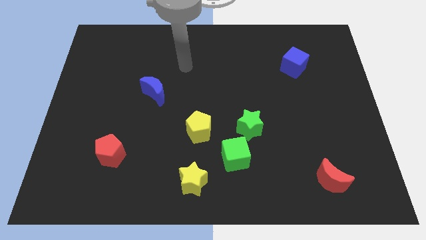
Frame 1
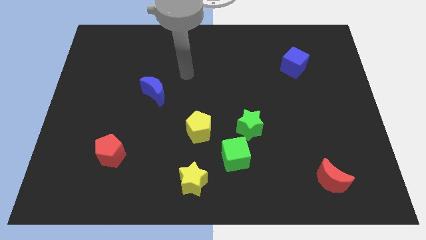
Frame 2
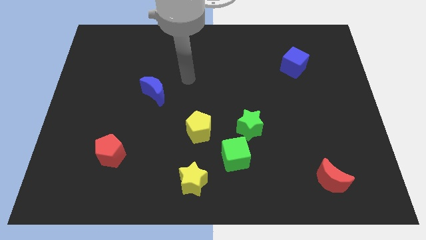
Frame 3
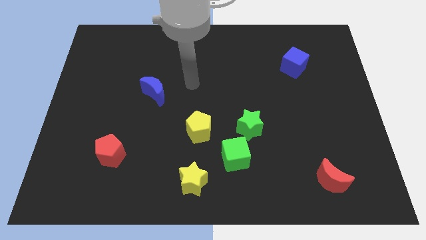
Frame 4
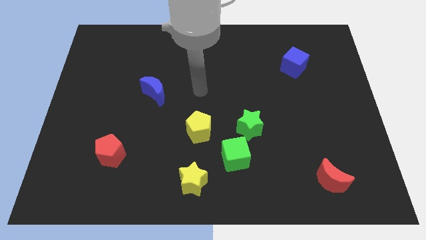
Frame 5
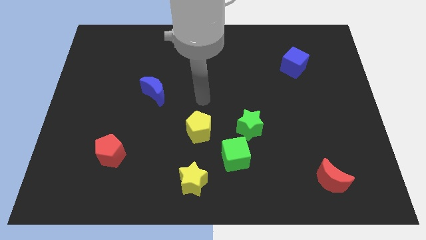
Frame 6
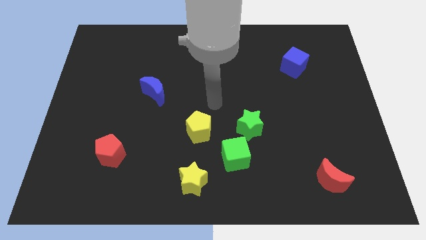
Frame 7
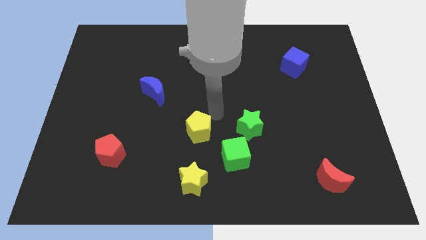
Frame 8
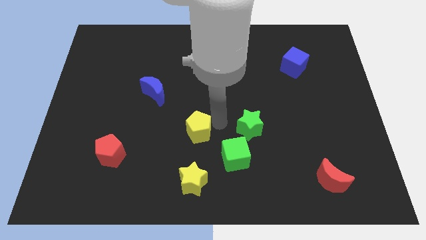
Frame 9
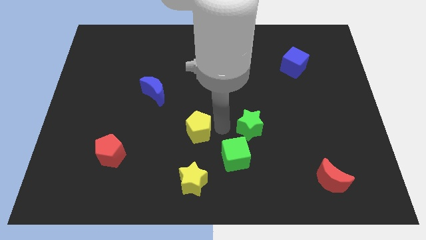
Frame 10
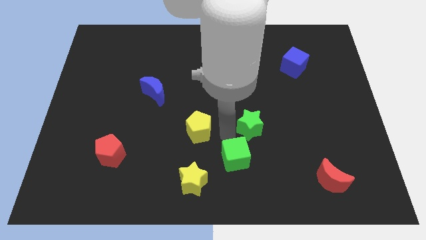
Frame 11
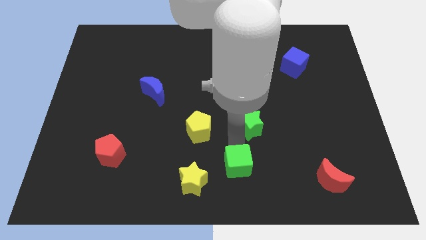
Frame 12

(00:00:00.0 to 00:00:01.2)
pull the green star apart from the green cube

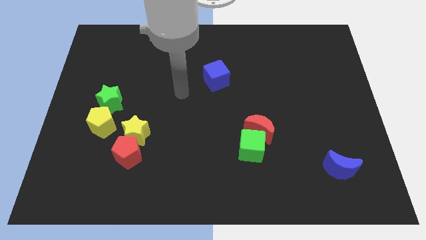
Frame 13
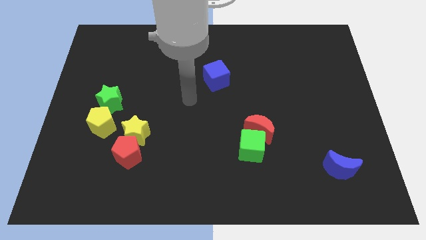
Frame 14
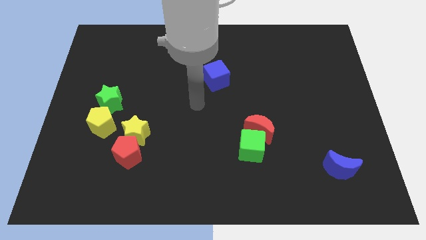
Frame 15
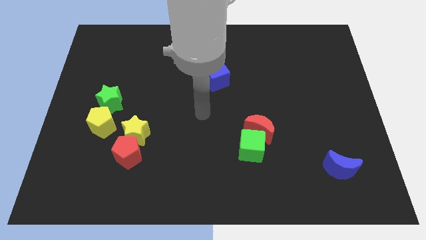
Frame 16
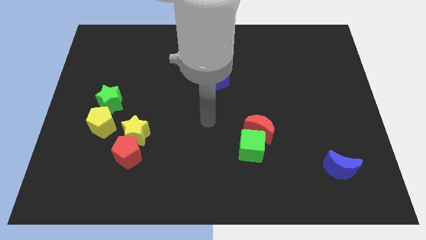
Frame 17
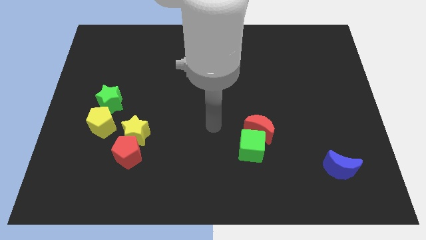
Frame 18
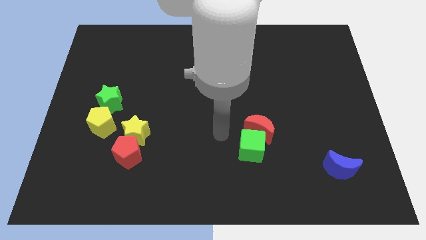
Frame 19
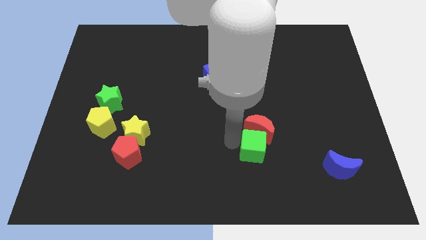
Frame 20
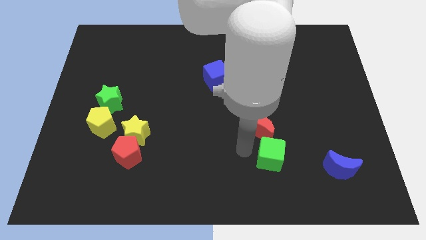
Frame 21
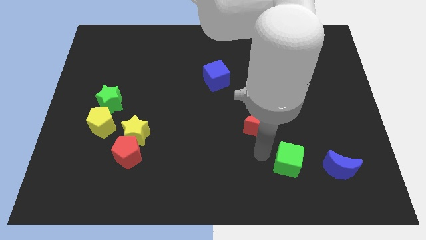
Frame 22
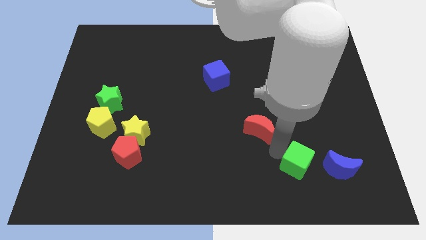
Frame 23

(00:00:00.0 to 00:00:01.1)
pull the red moon apart from the green cube

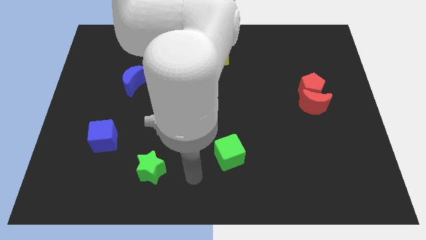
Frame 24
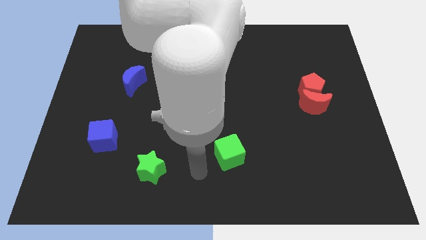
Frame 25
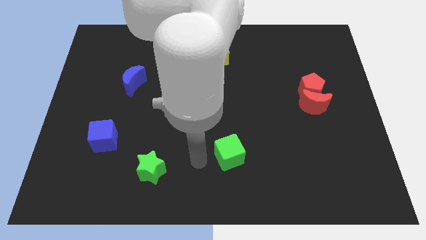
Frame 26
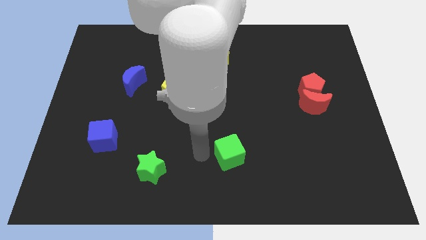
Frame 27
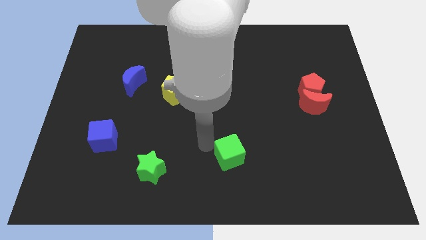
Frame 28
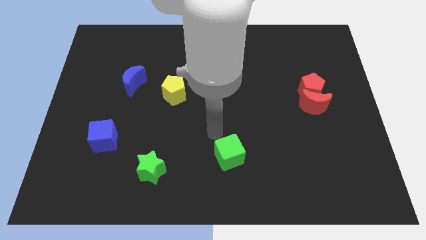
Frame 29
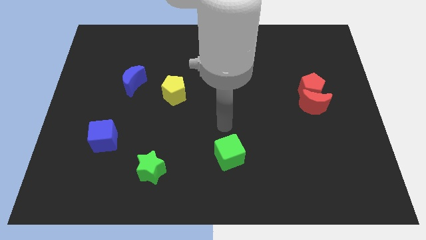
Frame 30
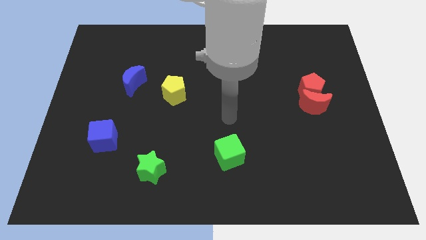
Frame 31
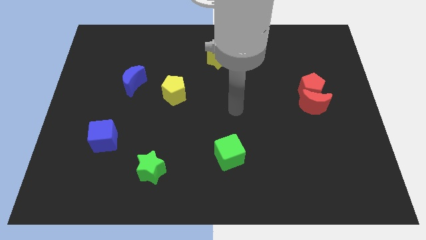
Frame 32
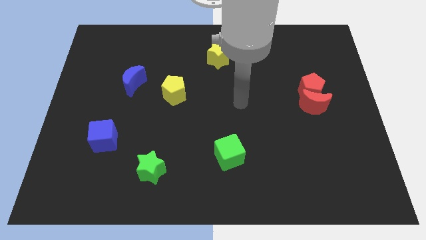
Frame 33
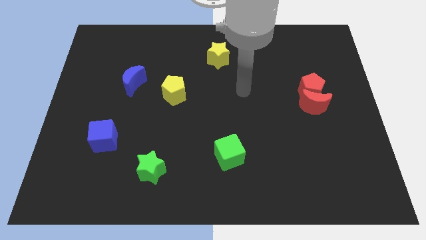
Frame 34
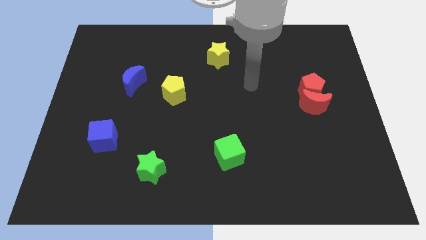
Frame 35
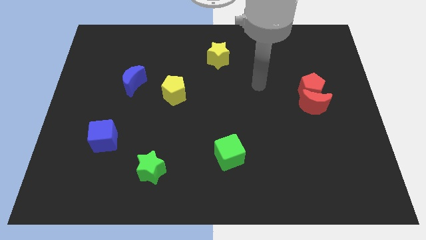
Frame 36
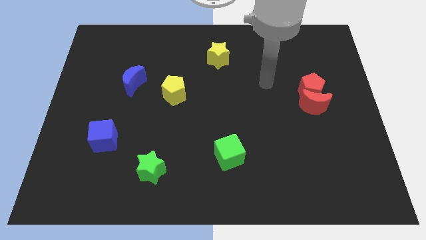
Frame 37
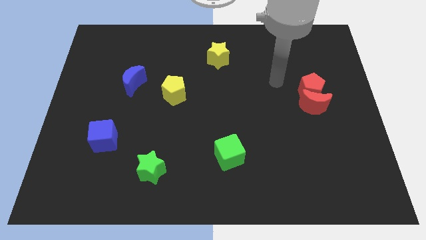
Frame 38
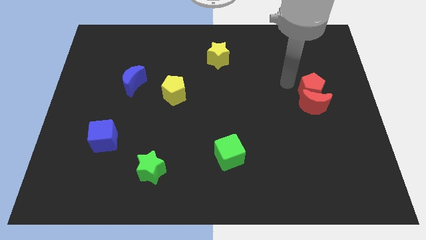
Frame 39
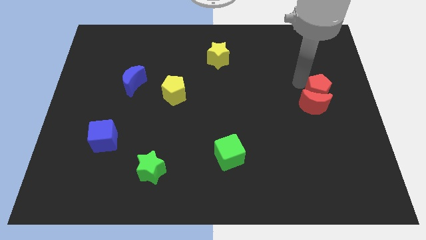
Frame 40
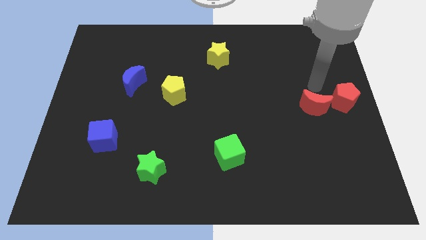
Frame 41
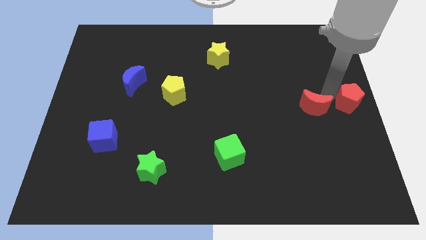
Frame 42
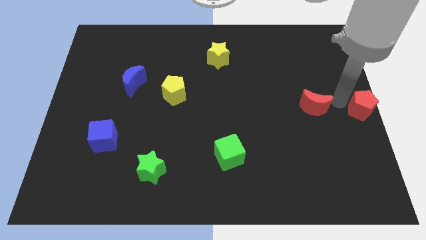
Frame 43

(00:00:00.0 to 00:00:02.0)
separate the red moon from the red pentagon

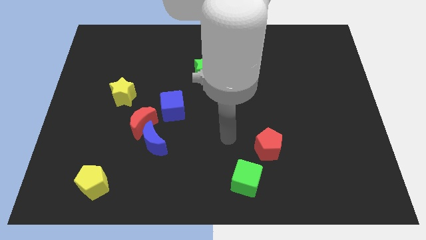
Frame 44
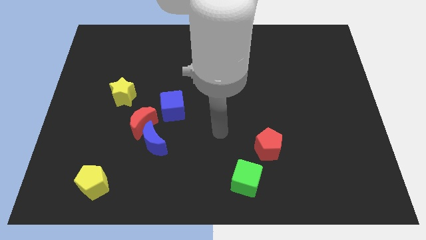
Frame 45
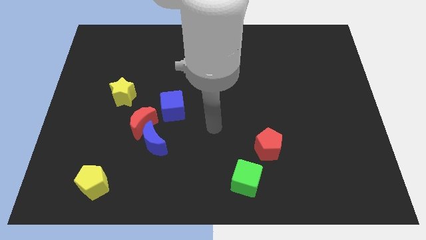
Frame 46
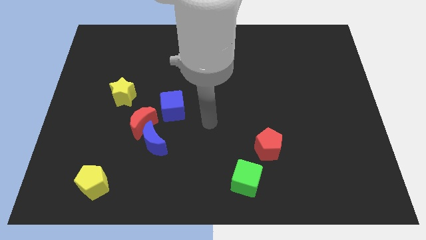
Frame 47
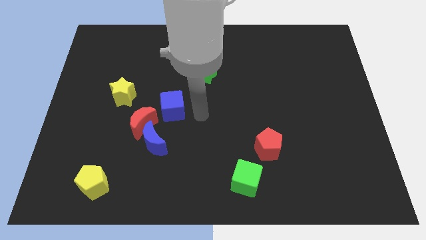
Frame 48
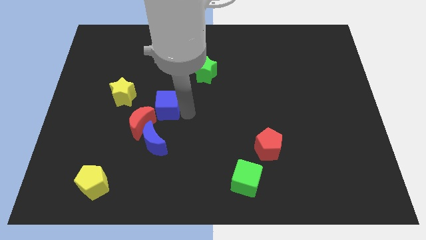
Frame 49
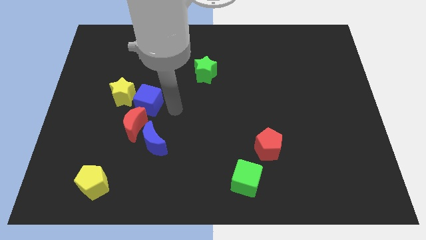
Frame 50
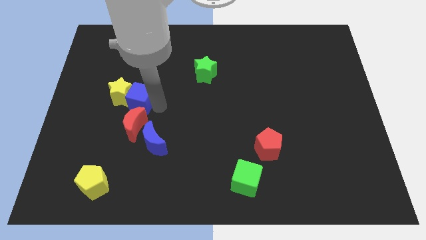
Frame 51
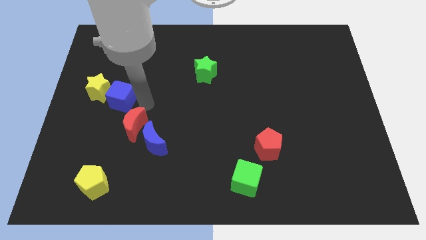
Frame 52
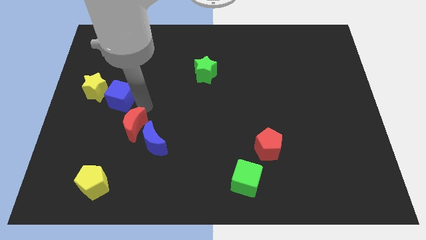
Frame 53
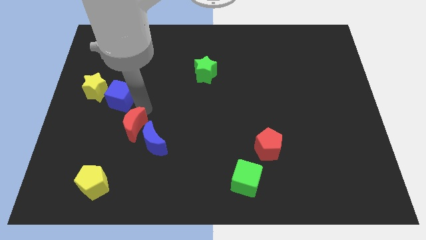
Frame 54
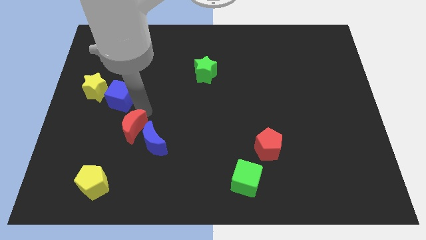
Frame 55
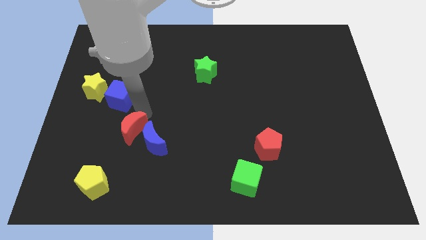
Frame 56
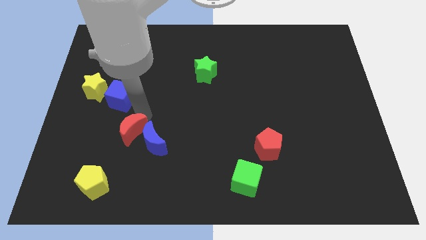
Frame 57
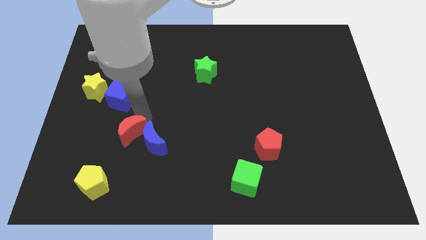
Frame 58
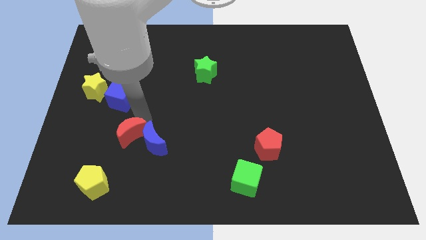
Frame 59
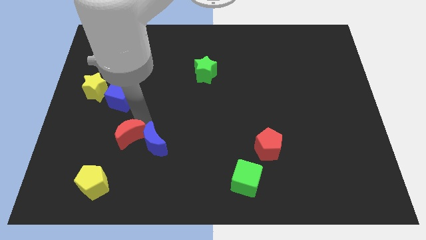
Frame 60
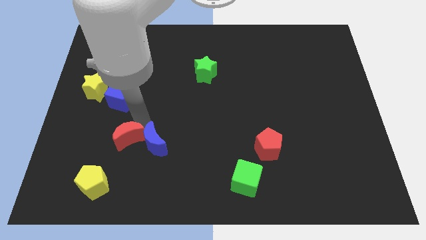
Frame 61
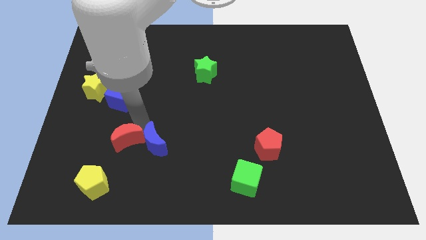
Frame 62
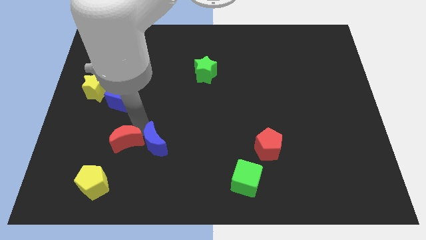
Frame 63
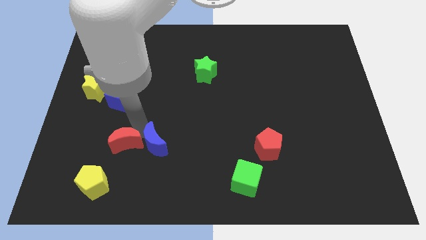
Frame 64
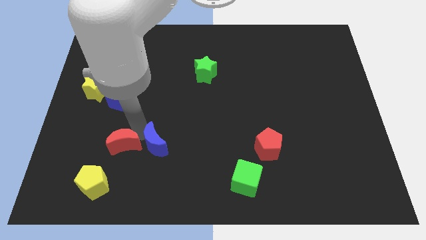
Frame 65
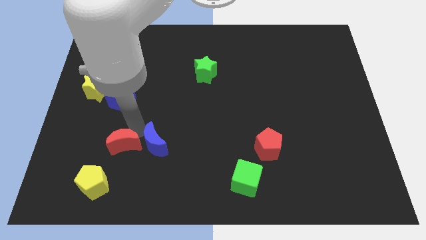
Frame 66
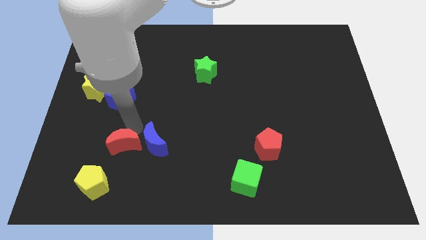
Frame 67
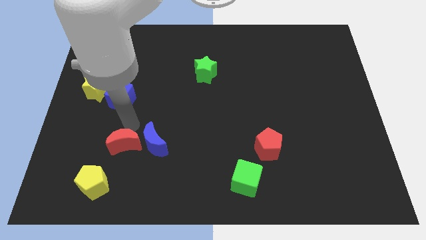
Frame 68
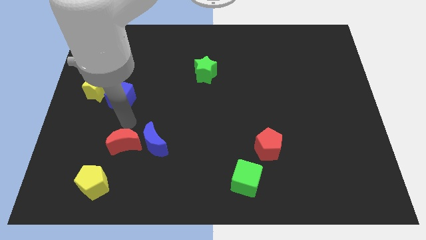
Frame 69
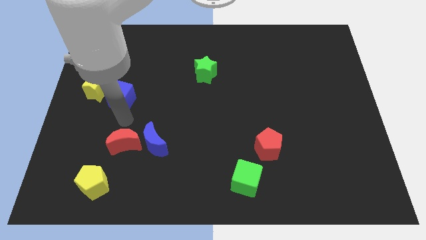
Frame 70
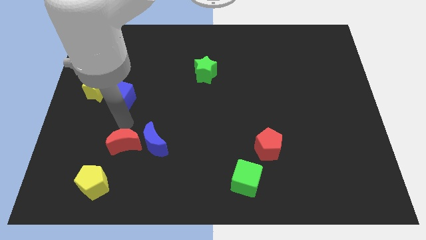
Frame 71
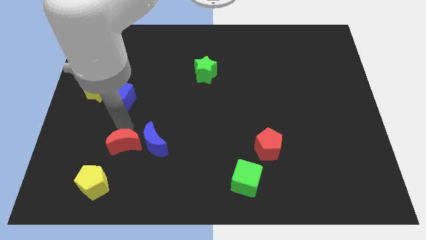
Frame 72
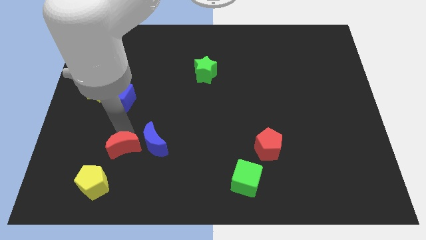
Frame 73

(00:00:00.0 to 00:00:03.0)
separate the red moon from the group of blocks

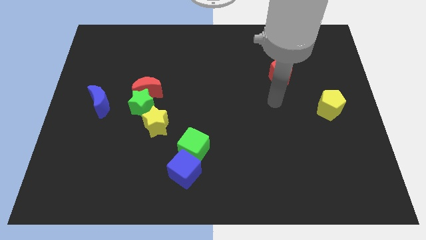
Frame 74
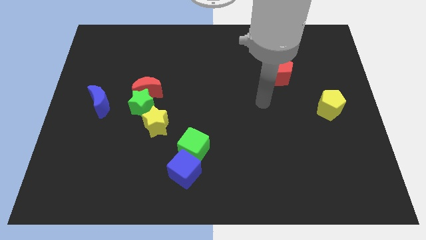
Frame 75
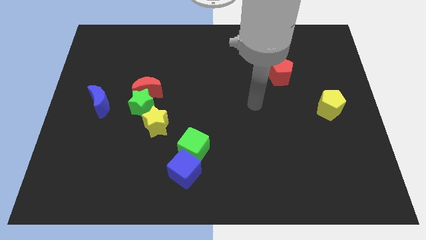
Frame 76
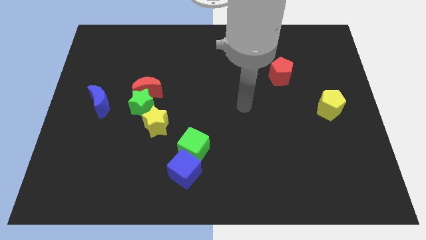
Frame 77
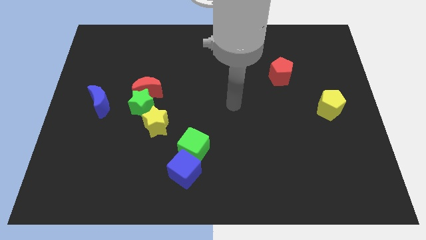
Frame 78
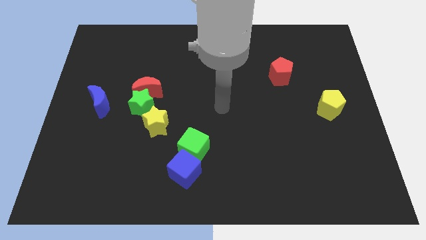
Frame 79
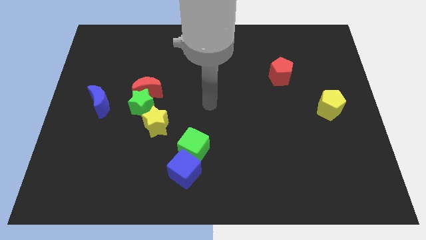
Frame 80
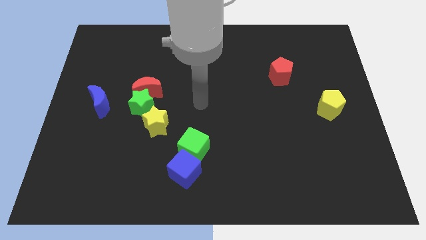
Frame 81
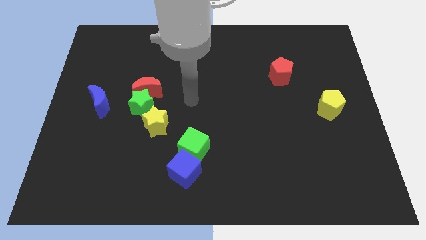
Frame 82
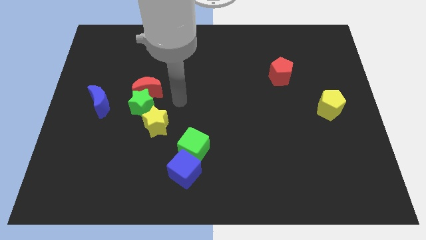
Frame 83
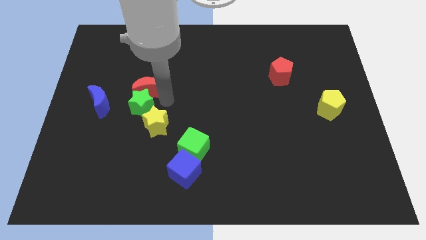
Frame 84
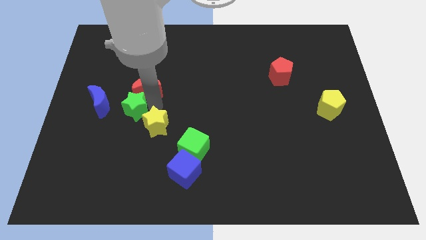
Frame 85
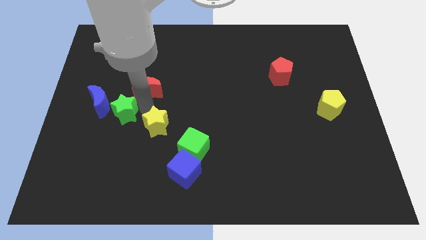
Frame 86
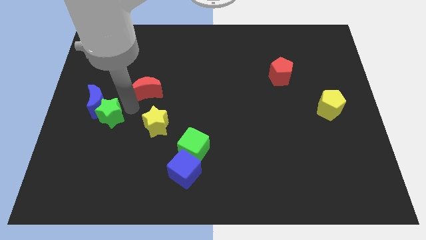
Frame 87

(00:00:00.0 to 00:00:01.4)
move the red moon away from the green star

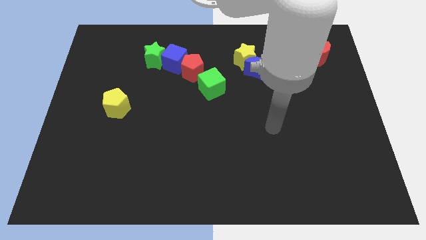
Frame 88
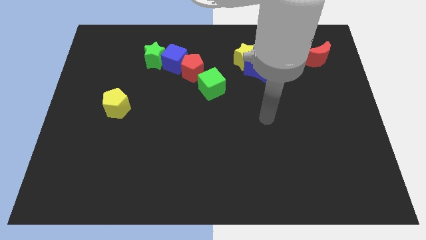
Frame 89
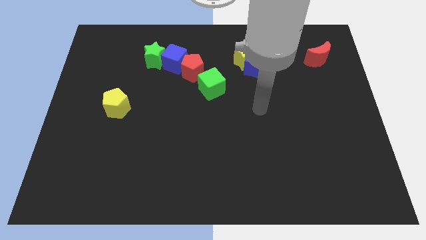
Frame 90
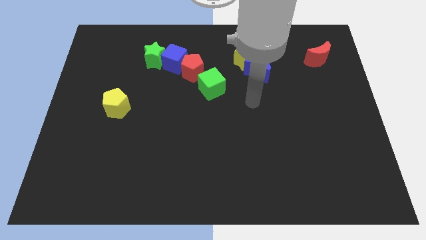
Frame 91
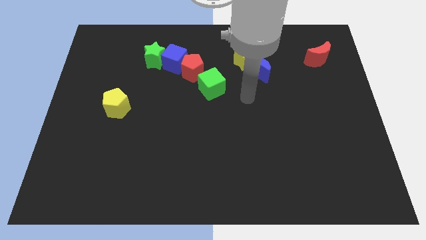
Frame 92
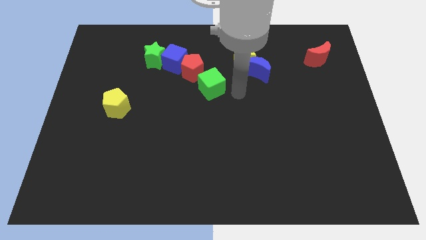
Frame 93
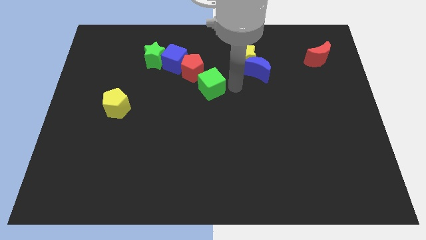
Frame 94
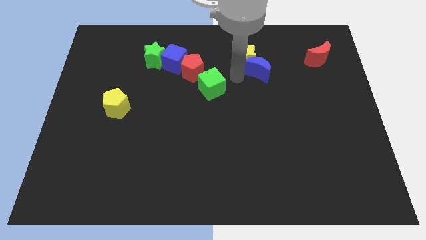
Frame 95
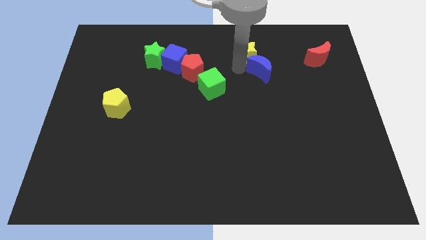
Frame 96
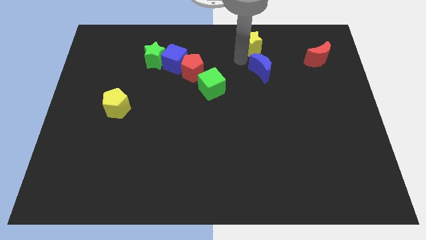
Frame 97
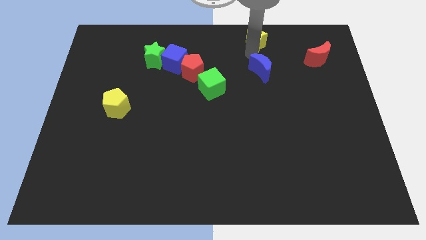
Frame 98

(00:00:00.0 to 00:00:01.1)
move the blue moon away from the yellow star
